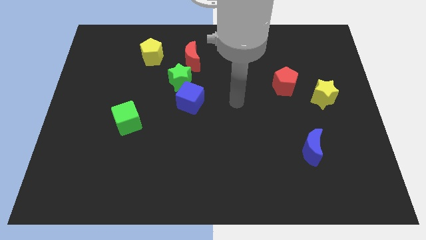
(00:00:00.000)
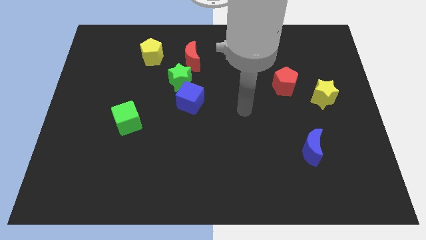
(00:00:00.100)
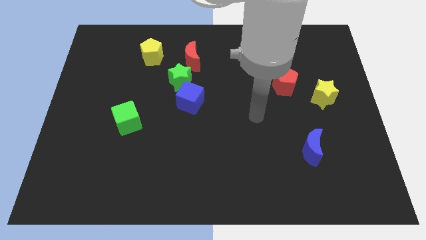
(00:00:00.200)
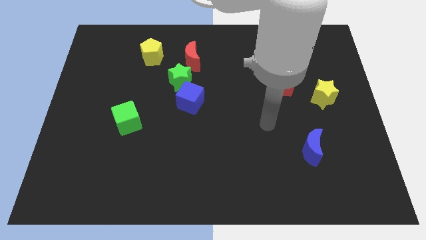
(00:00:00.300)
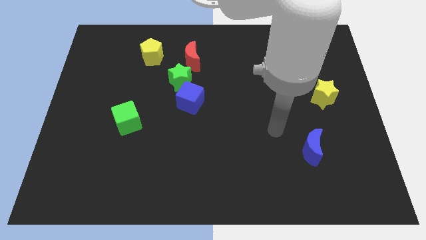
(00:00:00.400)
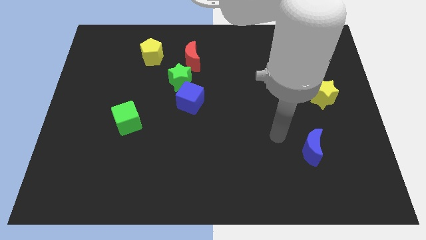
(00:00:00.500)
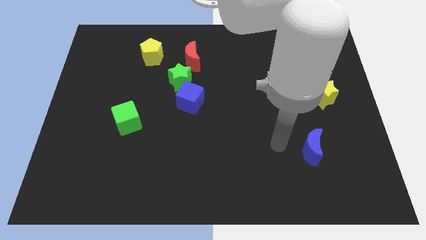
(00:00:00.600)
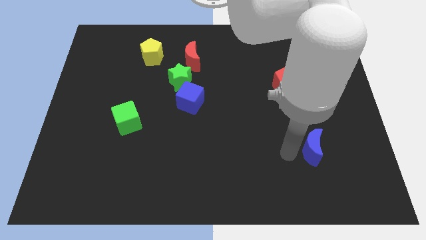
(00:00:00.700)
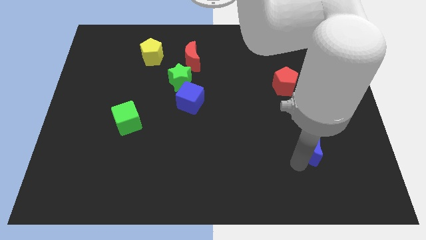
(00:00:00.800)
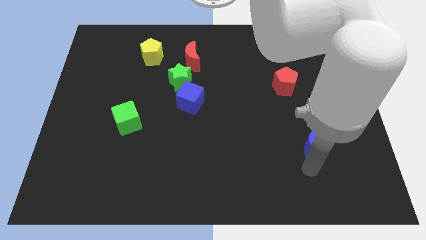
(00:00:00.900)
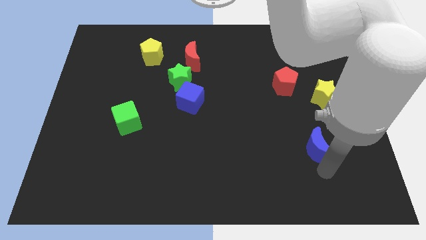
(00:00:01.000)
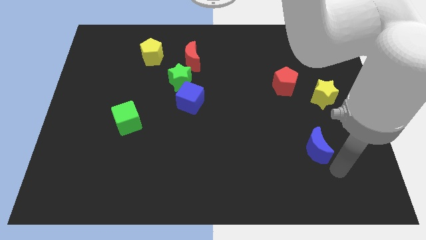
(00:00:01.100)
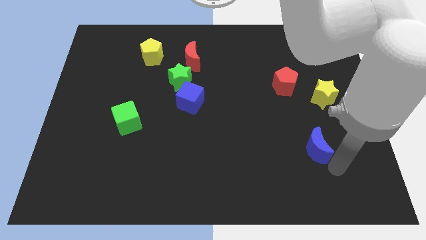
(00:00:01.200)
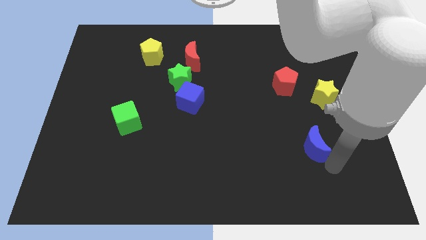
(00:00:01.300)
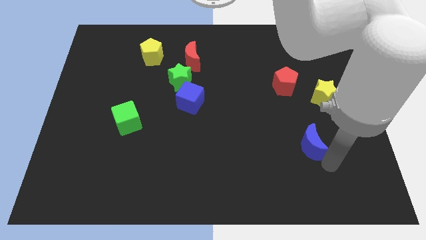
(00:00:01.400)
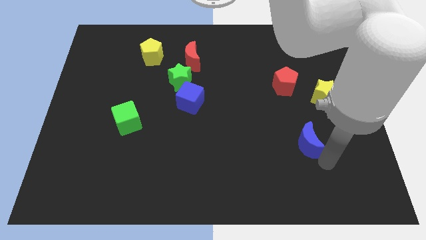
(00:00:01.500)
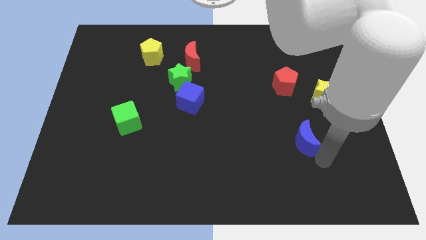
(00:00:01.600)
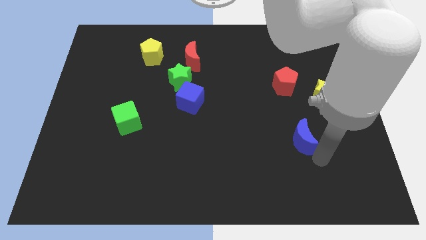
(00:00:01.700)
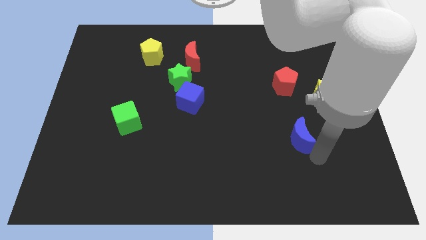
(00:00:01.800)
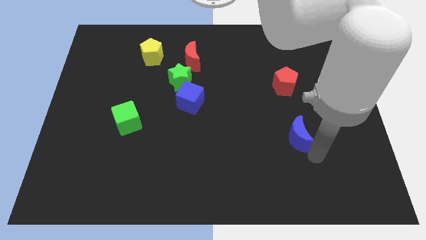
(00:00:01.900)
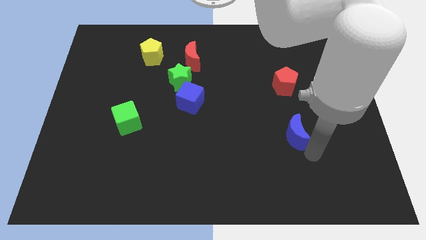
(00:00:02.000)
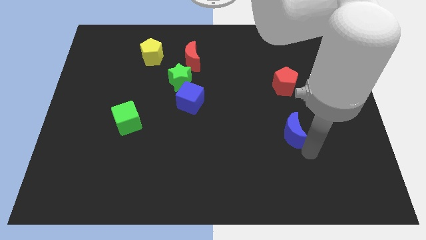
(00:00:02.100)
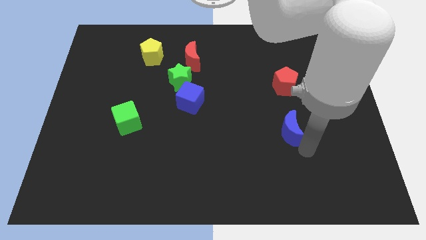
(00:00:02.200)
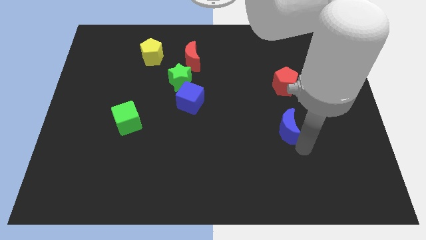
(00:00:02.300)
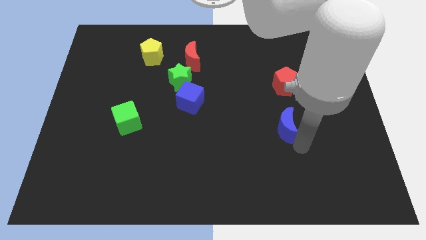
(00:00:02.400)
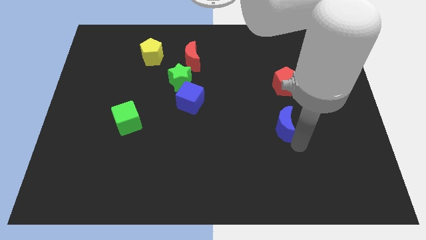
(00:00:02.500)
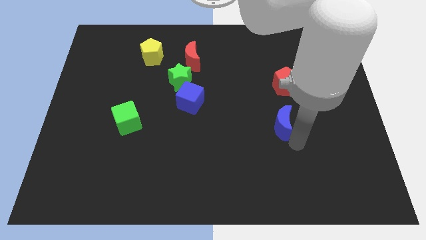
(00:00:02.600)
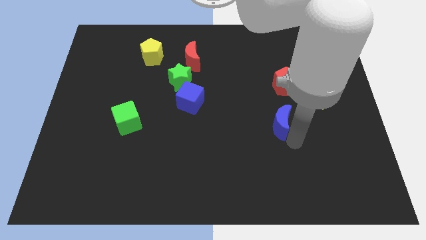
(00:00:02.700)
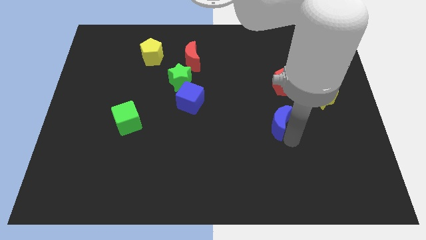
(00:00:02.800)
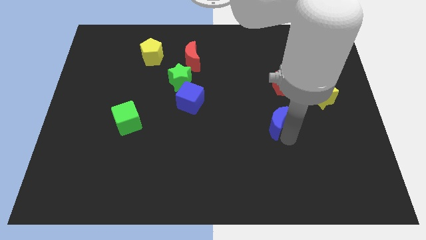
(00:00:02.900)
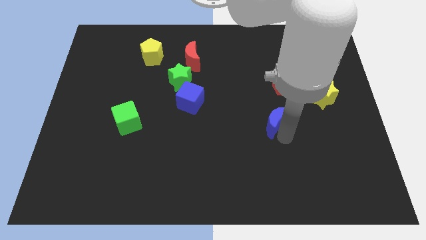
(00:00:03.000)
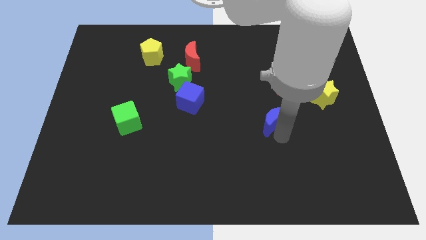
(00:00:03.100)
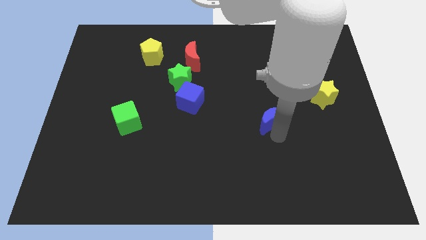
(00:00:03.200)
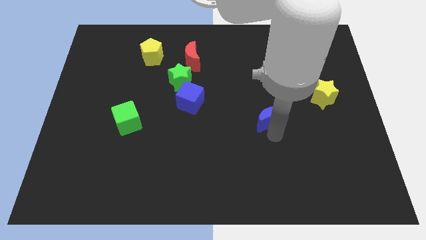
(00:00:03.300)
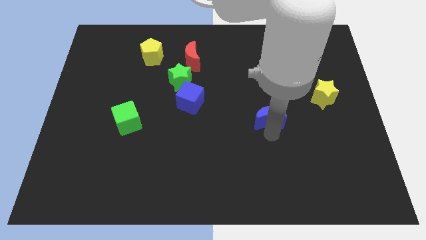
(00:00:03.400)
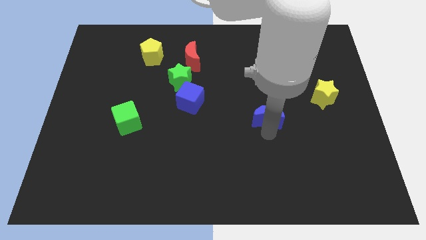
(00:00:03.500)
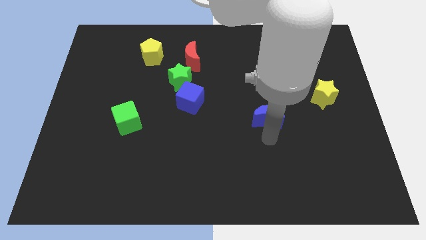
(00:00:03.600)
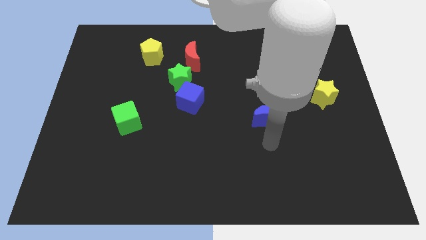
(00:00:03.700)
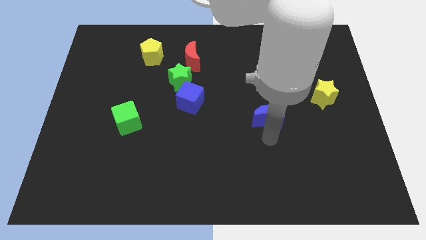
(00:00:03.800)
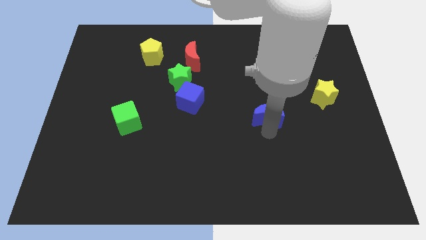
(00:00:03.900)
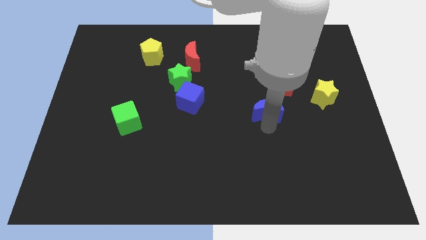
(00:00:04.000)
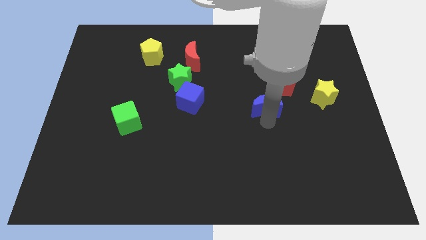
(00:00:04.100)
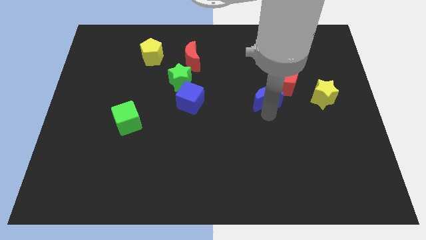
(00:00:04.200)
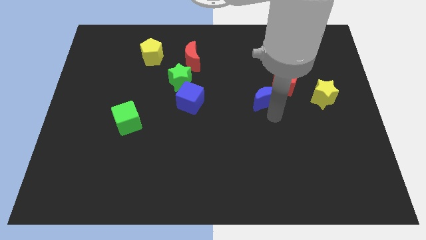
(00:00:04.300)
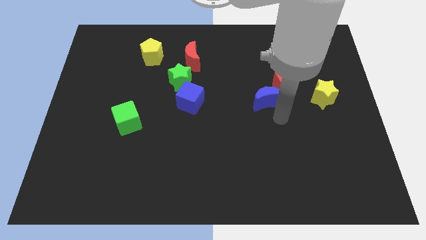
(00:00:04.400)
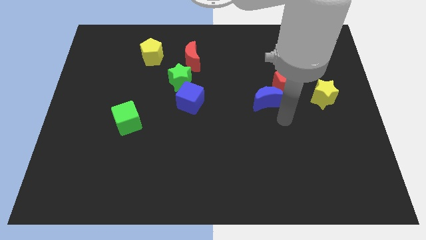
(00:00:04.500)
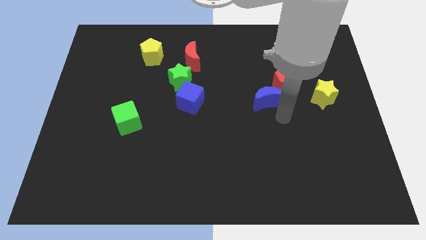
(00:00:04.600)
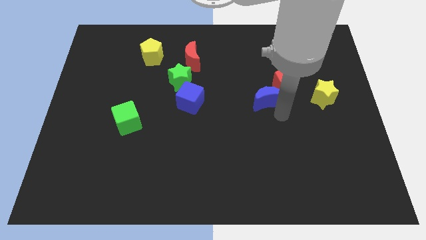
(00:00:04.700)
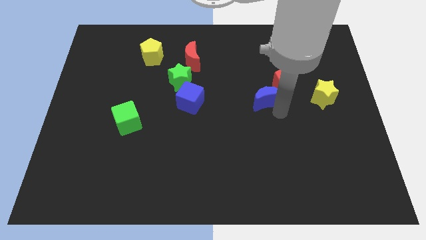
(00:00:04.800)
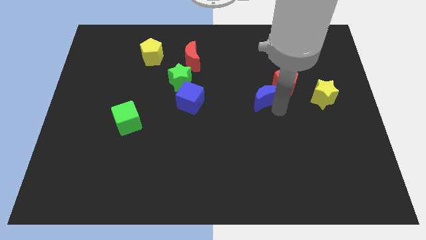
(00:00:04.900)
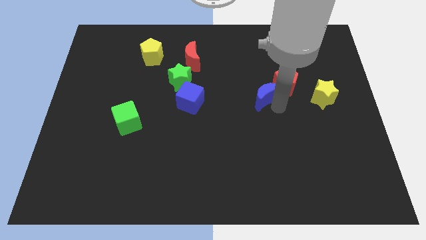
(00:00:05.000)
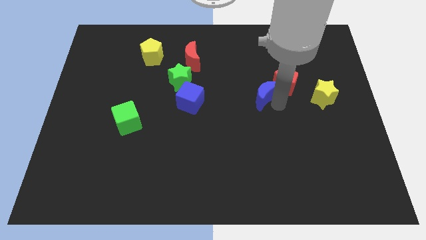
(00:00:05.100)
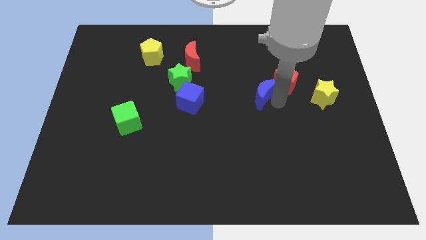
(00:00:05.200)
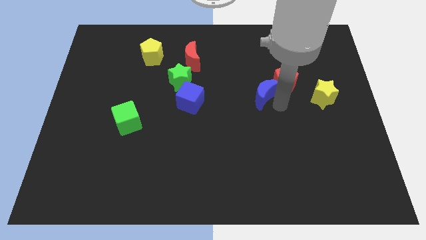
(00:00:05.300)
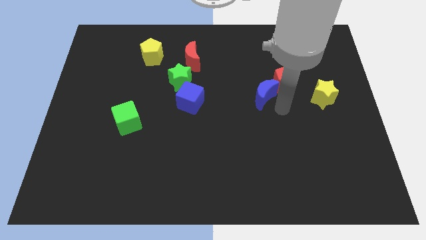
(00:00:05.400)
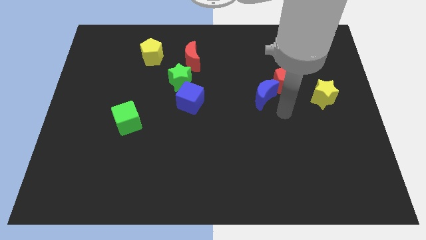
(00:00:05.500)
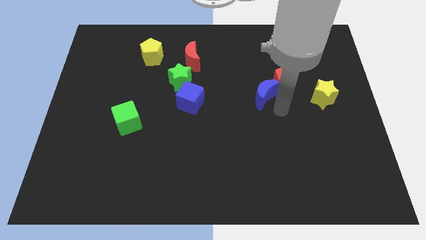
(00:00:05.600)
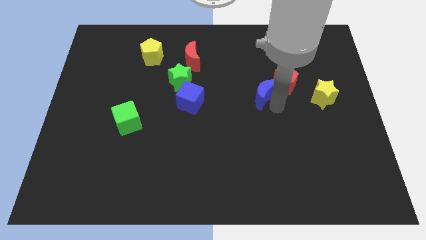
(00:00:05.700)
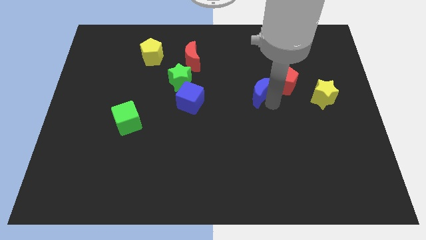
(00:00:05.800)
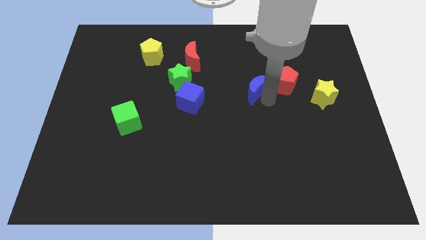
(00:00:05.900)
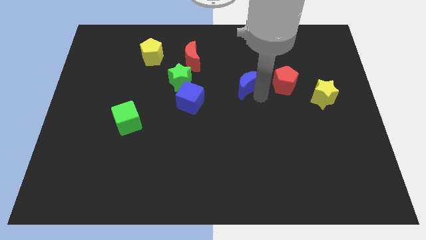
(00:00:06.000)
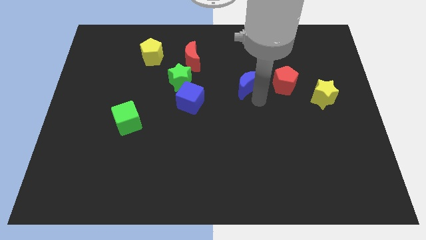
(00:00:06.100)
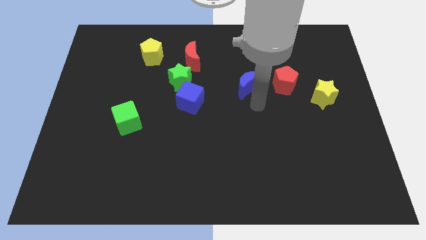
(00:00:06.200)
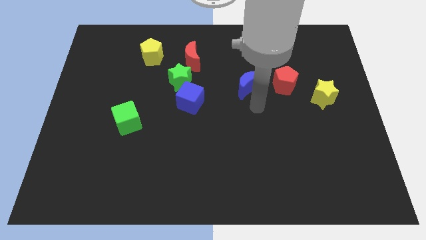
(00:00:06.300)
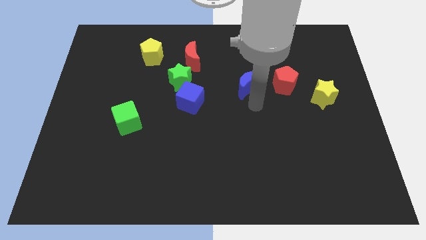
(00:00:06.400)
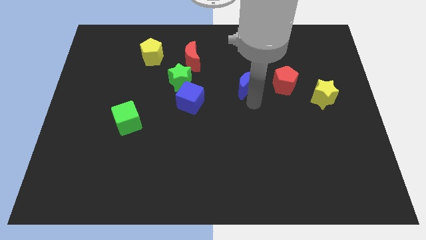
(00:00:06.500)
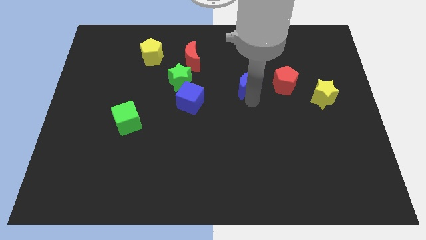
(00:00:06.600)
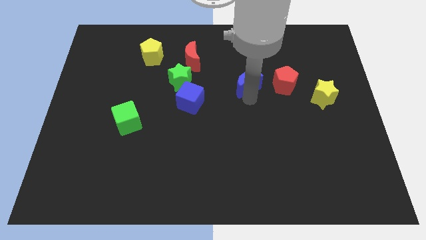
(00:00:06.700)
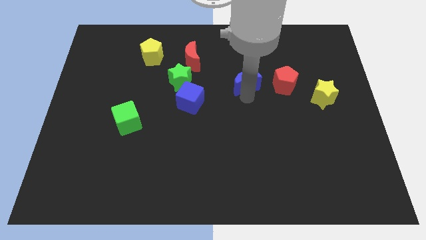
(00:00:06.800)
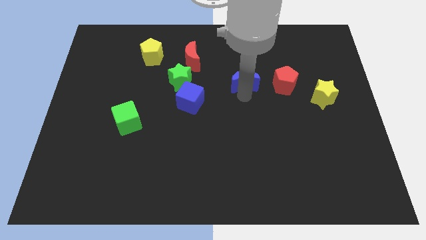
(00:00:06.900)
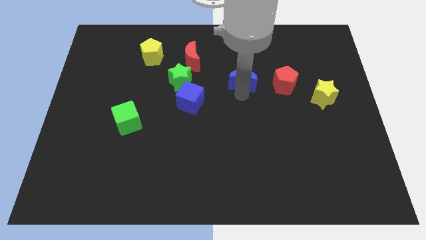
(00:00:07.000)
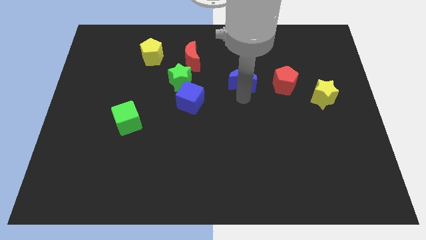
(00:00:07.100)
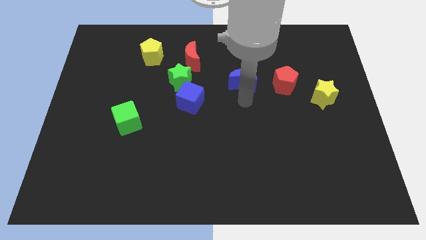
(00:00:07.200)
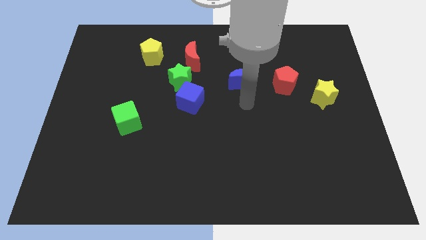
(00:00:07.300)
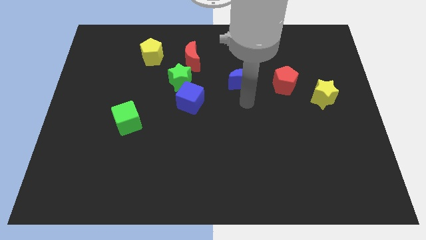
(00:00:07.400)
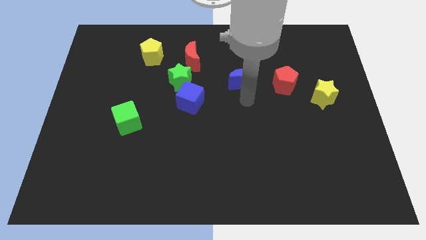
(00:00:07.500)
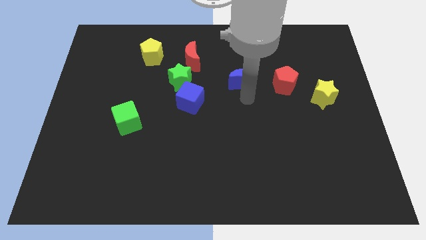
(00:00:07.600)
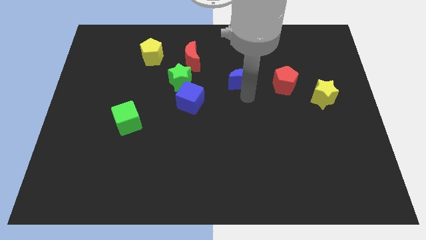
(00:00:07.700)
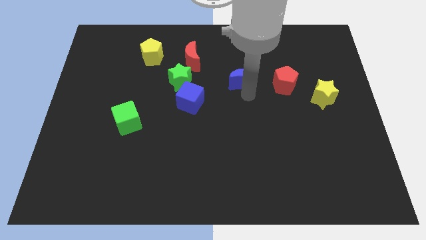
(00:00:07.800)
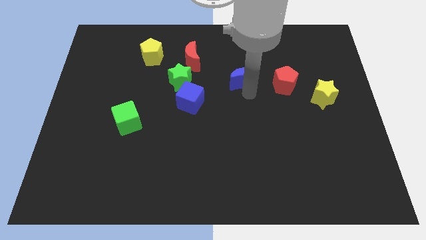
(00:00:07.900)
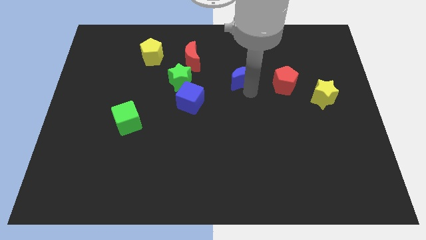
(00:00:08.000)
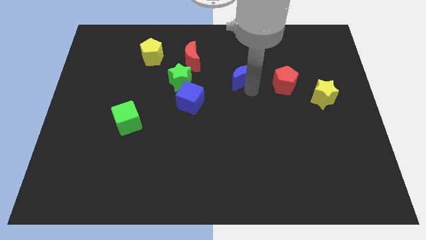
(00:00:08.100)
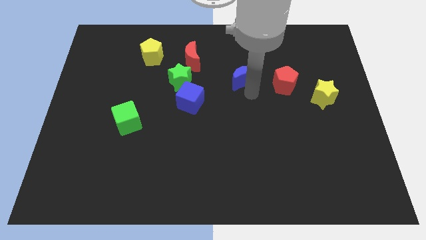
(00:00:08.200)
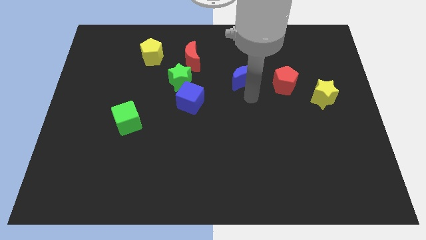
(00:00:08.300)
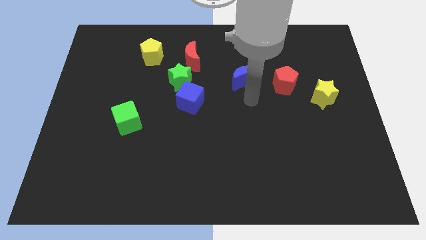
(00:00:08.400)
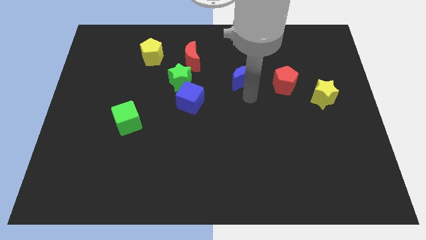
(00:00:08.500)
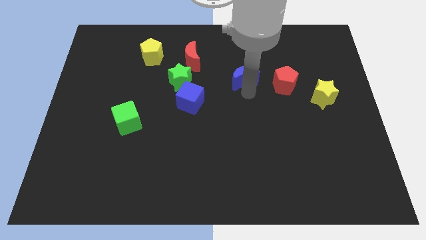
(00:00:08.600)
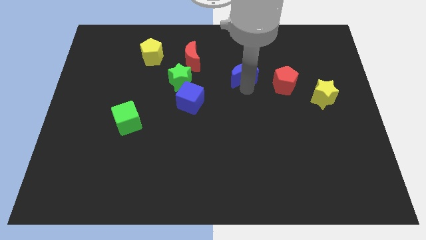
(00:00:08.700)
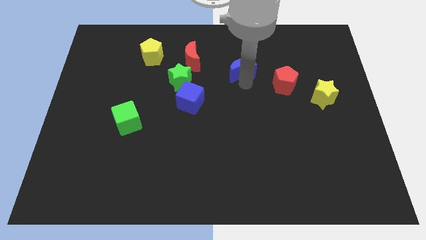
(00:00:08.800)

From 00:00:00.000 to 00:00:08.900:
move the blue moon just right of the red moon
